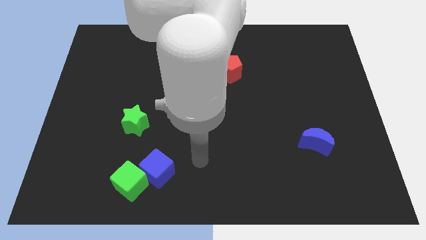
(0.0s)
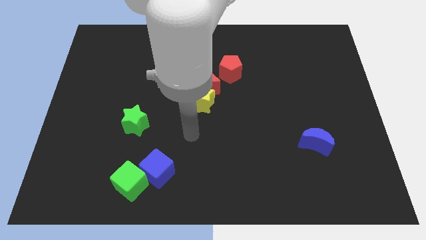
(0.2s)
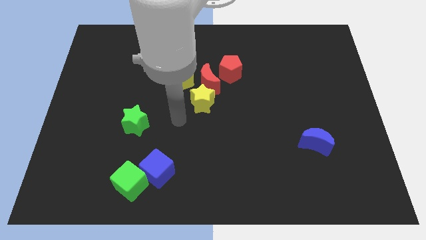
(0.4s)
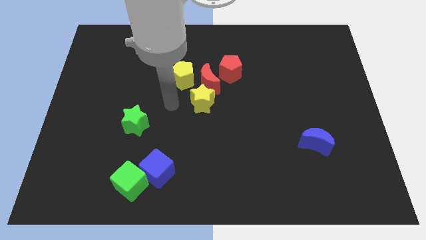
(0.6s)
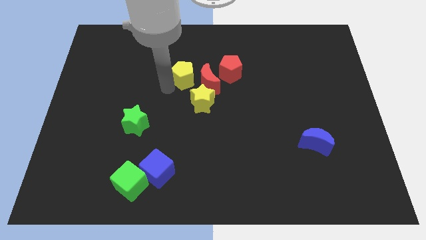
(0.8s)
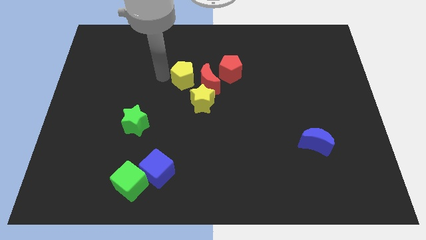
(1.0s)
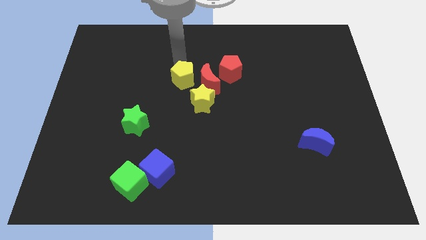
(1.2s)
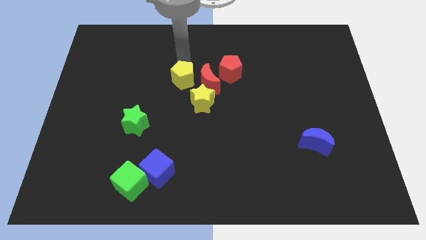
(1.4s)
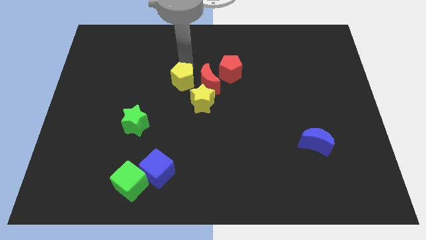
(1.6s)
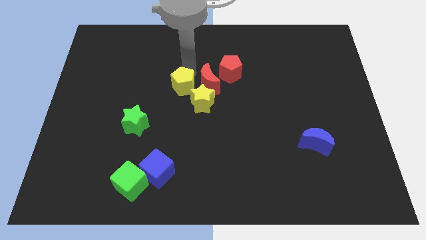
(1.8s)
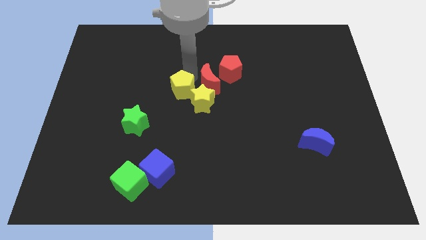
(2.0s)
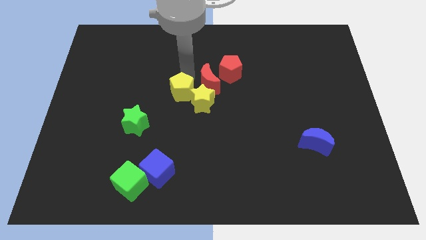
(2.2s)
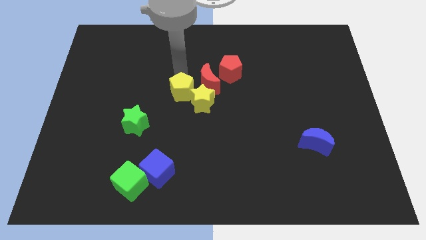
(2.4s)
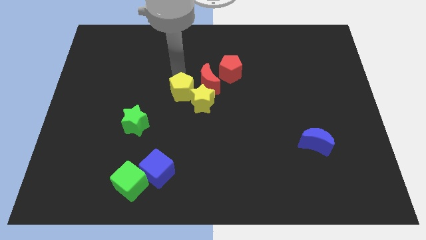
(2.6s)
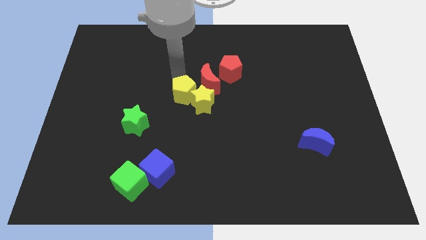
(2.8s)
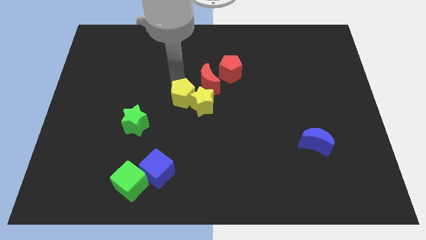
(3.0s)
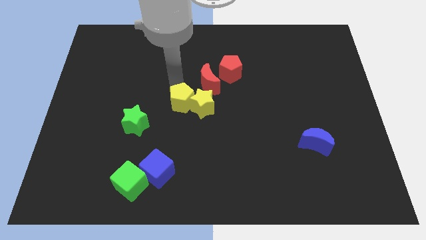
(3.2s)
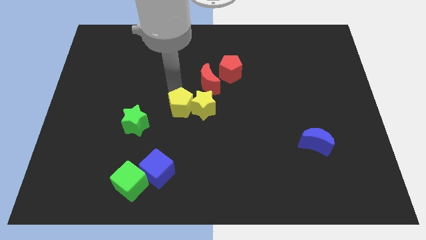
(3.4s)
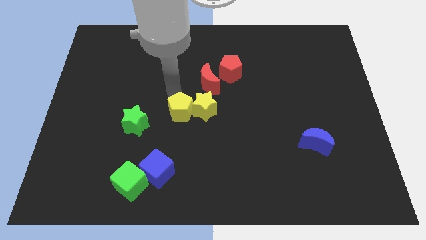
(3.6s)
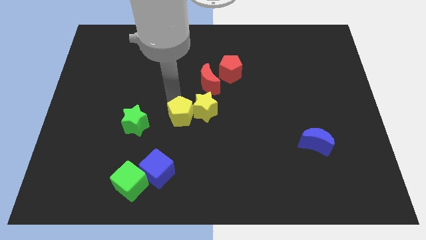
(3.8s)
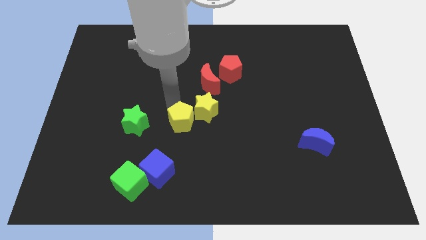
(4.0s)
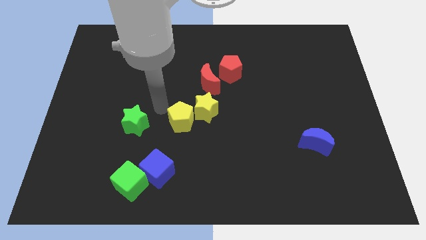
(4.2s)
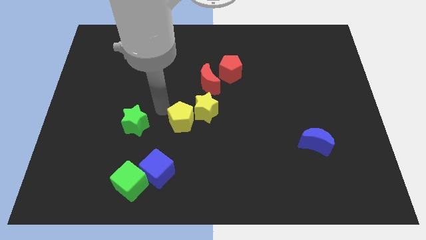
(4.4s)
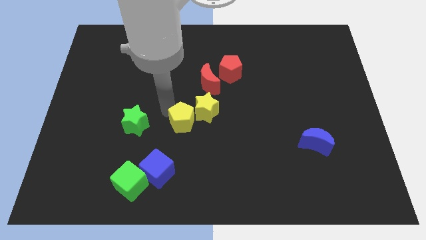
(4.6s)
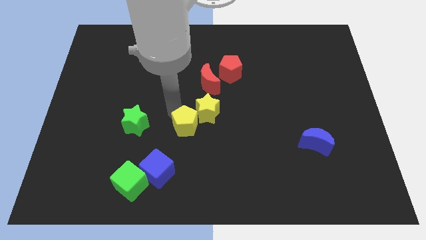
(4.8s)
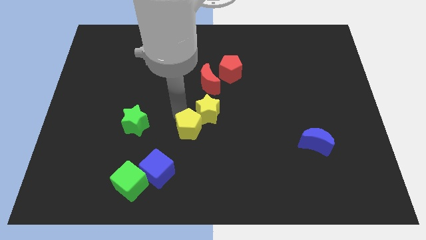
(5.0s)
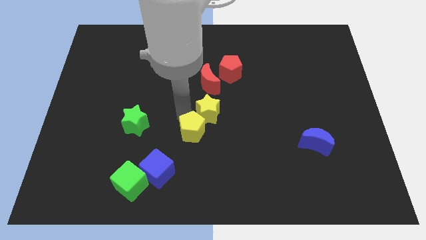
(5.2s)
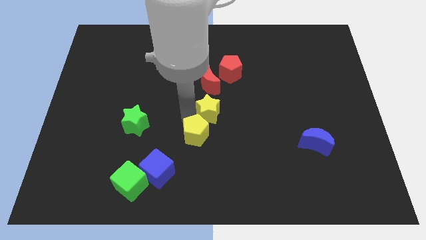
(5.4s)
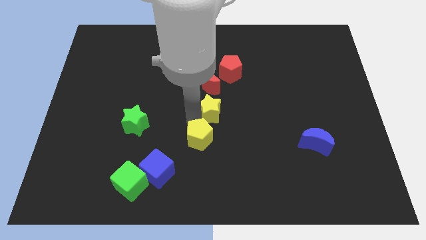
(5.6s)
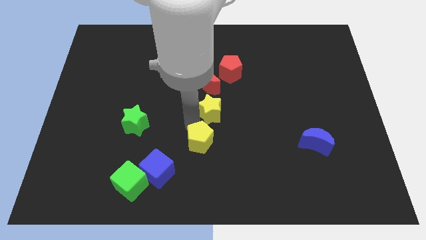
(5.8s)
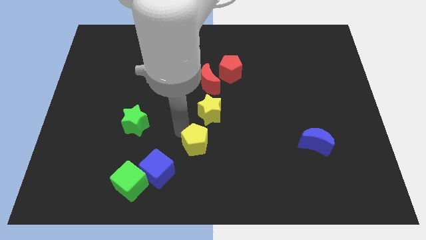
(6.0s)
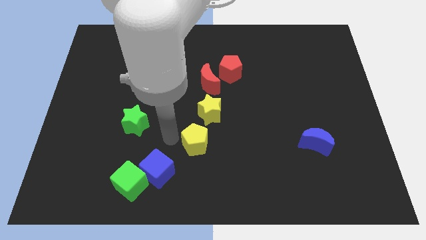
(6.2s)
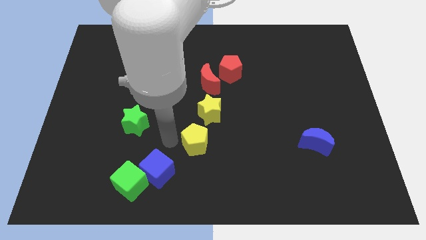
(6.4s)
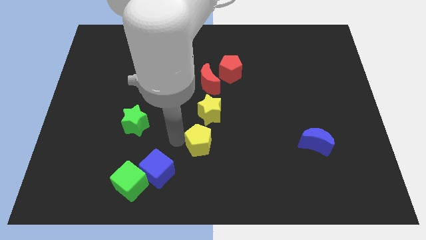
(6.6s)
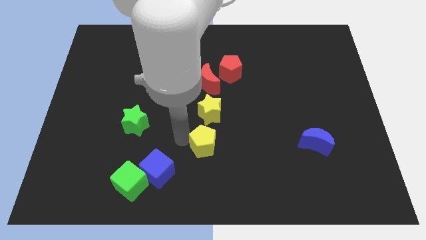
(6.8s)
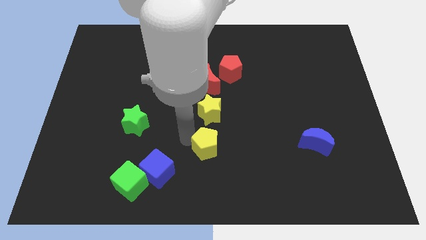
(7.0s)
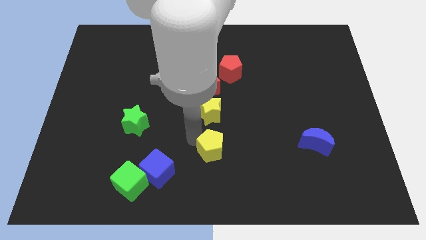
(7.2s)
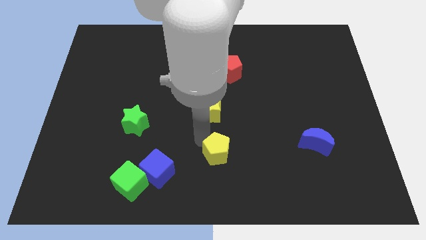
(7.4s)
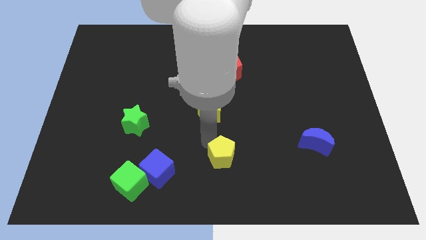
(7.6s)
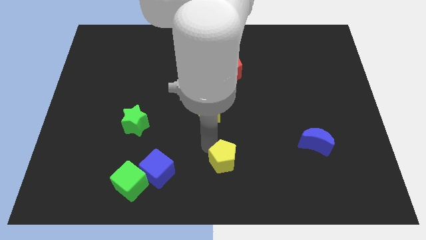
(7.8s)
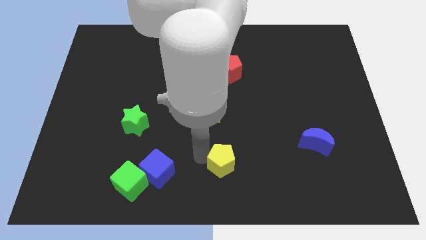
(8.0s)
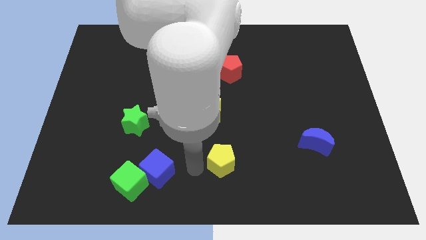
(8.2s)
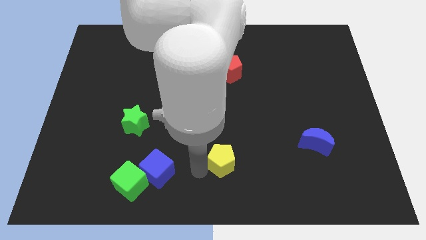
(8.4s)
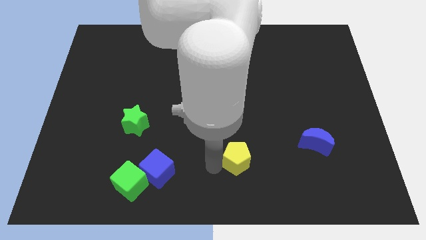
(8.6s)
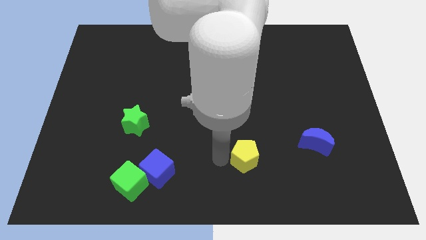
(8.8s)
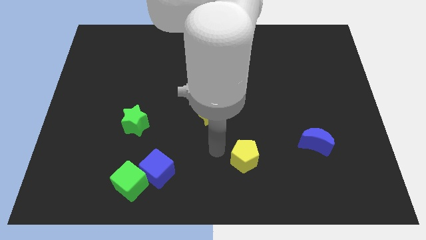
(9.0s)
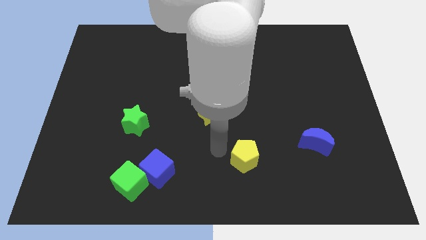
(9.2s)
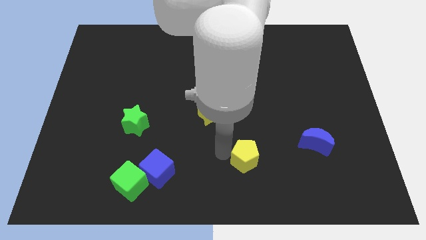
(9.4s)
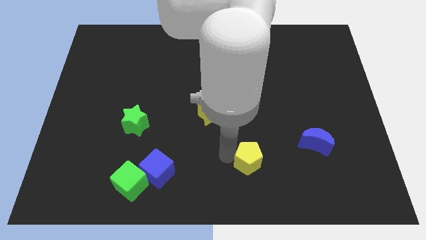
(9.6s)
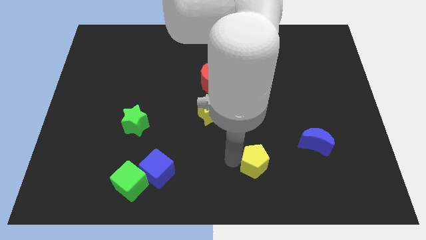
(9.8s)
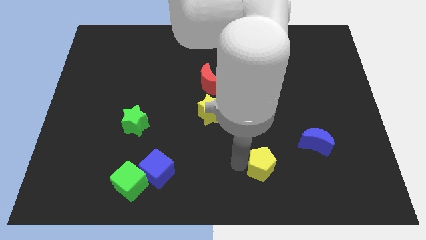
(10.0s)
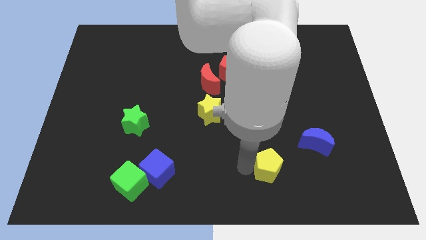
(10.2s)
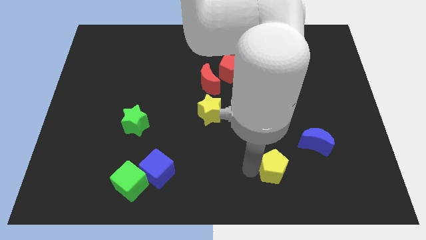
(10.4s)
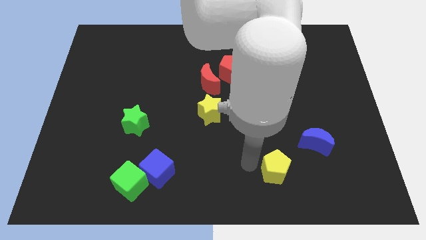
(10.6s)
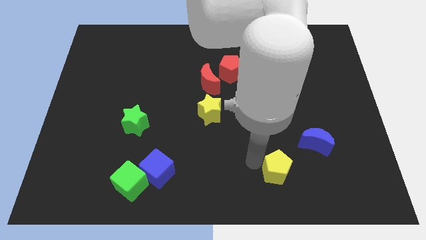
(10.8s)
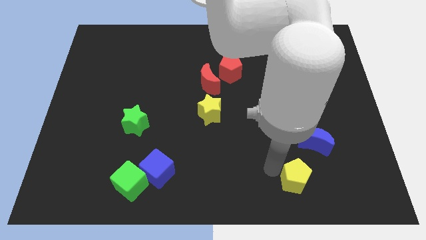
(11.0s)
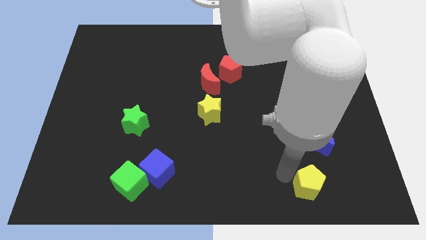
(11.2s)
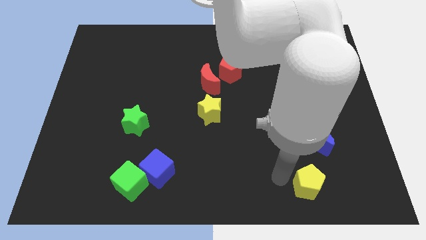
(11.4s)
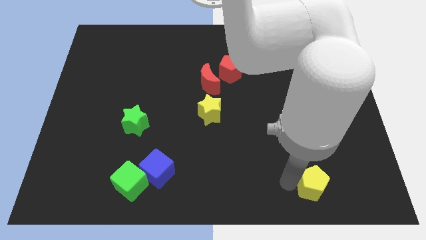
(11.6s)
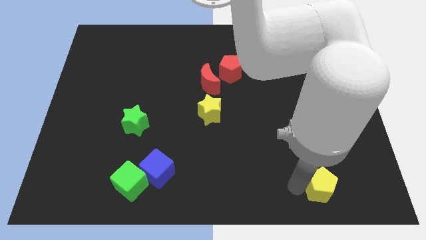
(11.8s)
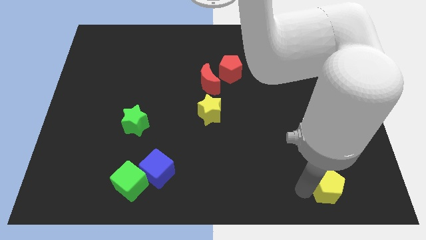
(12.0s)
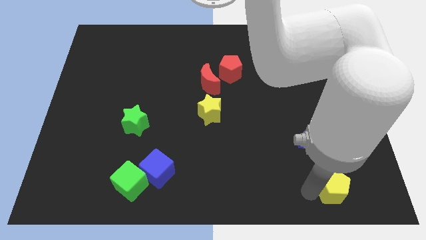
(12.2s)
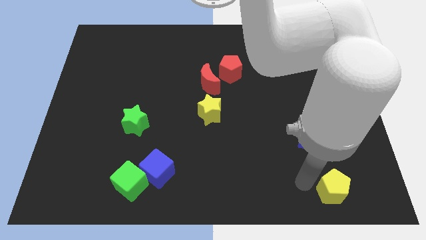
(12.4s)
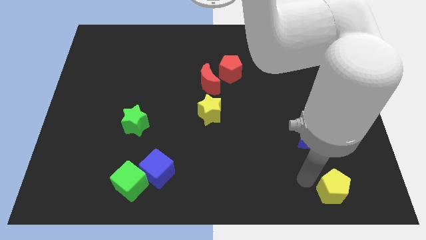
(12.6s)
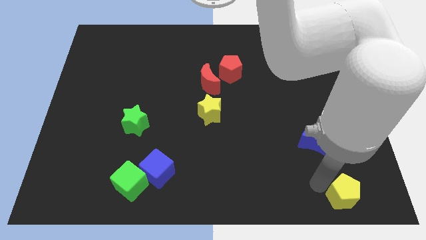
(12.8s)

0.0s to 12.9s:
push the yellow pentagon to the bottom right
